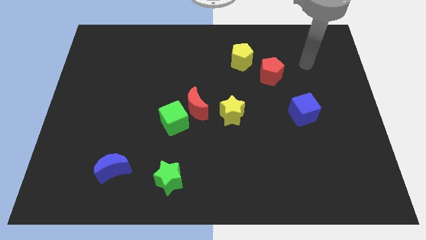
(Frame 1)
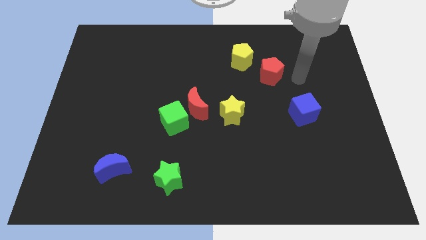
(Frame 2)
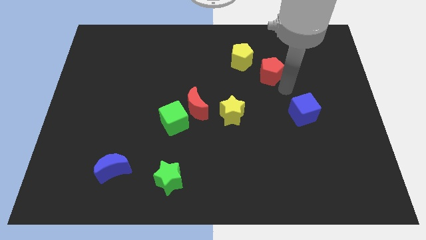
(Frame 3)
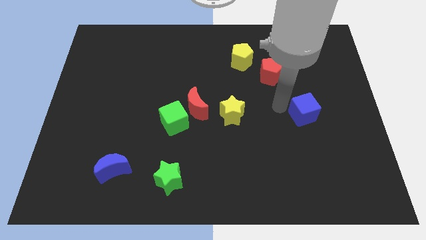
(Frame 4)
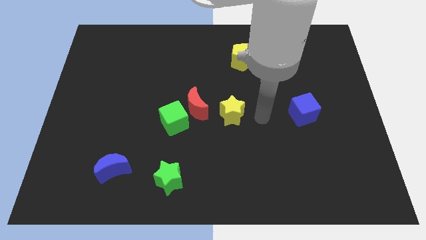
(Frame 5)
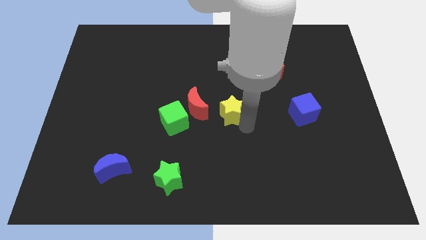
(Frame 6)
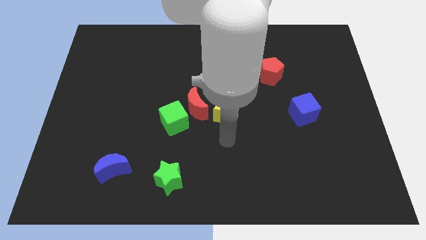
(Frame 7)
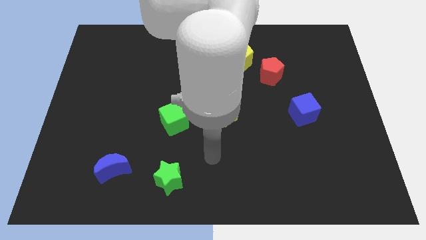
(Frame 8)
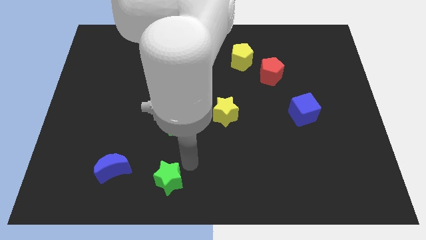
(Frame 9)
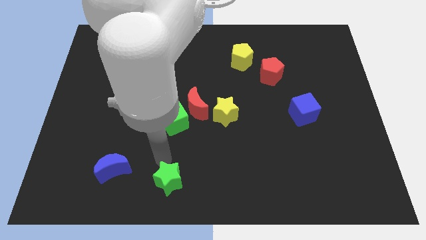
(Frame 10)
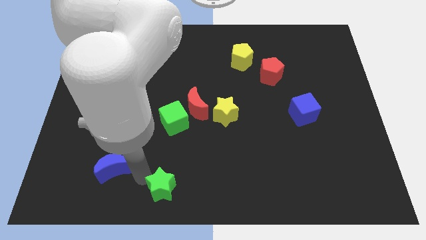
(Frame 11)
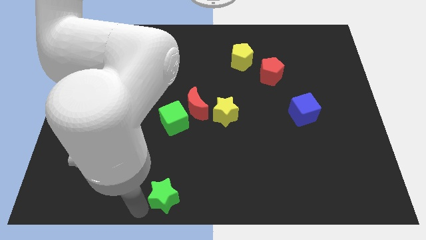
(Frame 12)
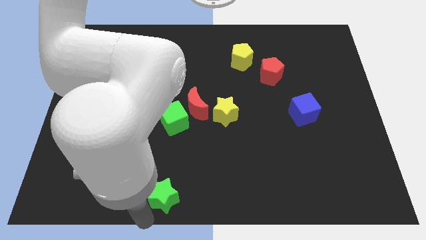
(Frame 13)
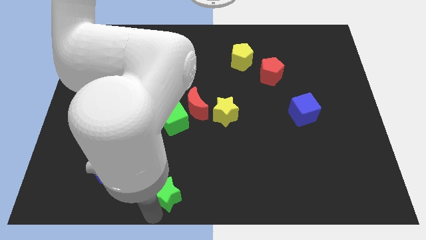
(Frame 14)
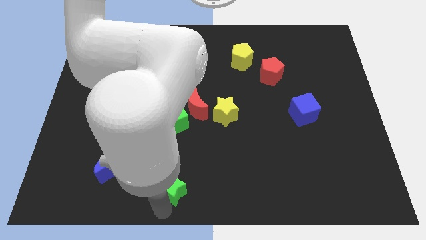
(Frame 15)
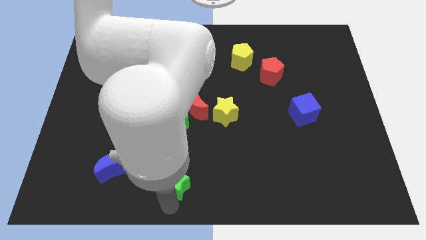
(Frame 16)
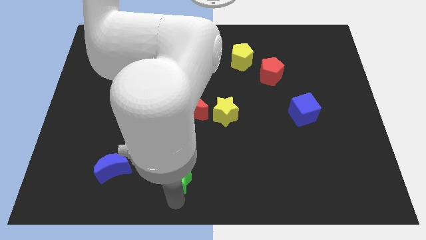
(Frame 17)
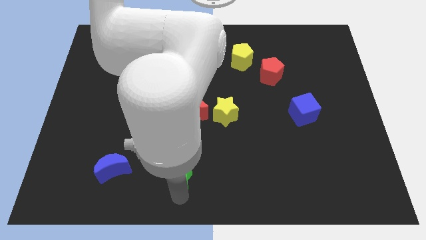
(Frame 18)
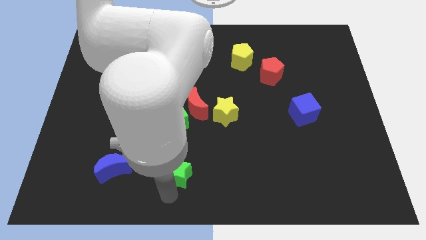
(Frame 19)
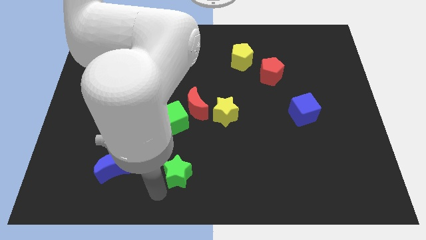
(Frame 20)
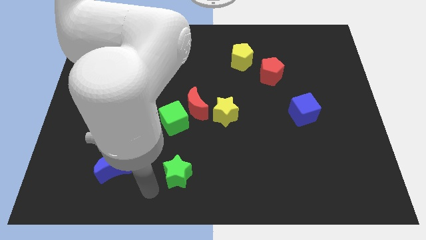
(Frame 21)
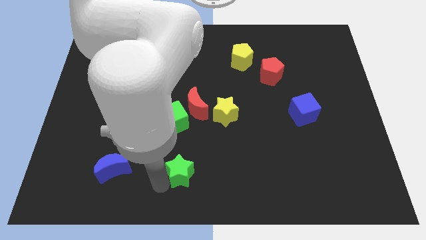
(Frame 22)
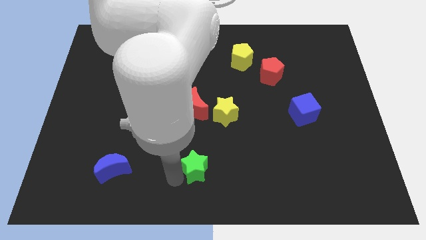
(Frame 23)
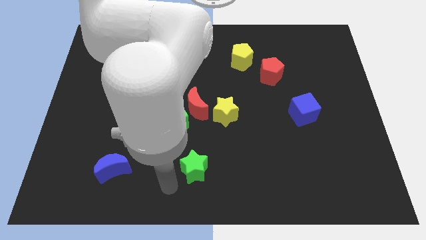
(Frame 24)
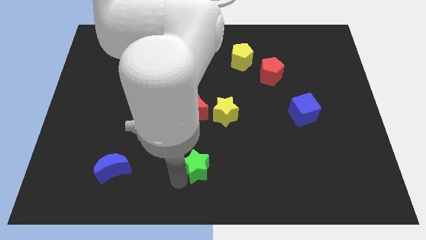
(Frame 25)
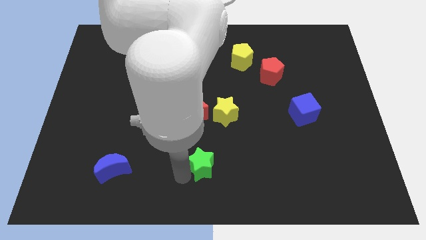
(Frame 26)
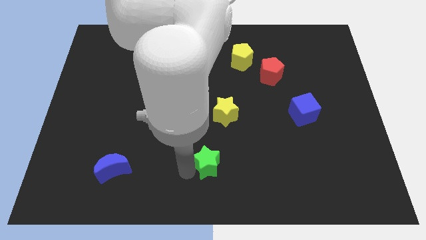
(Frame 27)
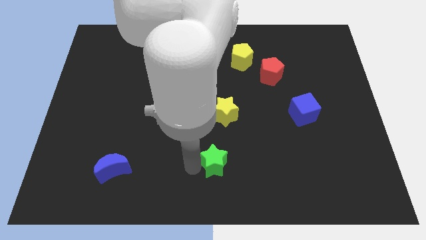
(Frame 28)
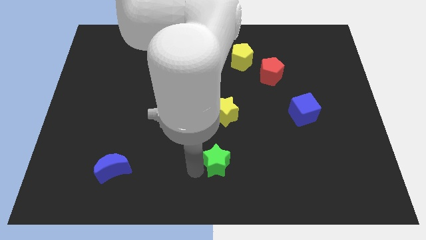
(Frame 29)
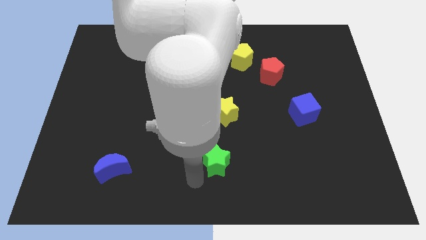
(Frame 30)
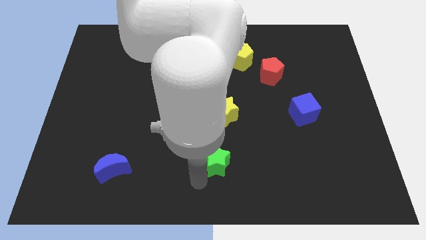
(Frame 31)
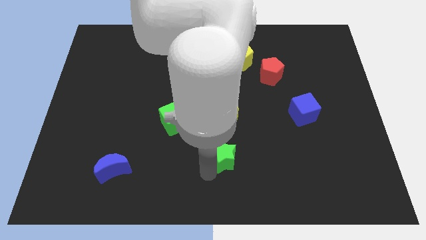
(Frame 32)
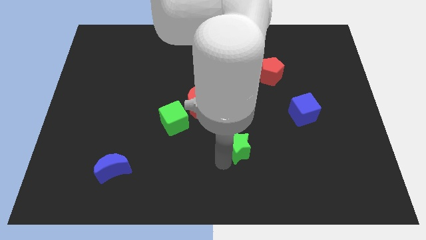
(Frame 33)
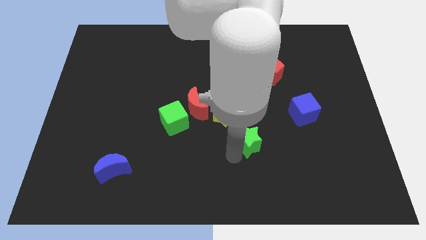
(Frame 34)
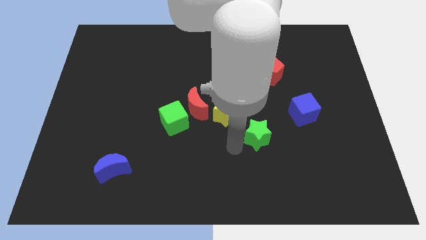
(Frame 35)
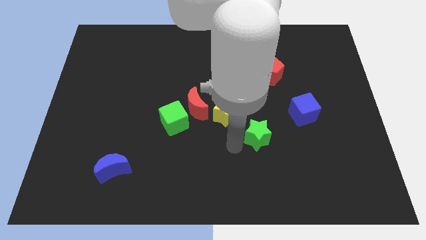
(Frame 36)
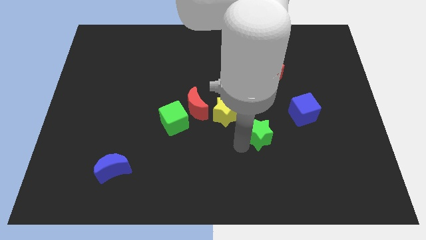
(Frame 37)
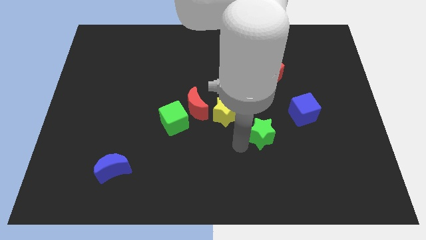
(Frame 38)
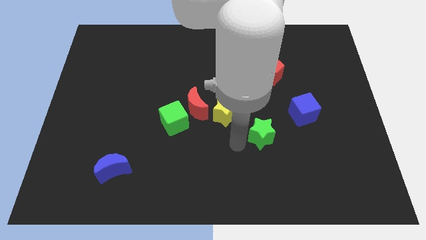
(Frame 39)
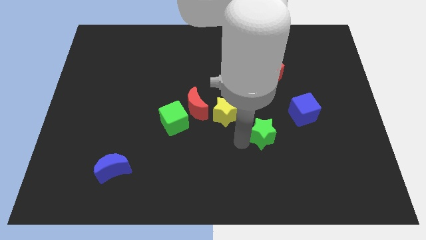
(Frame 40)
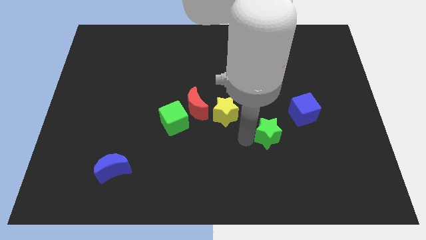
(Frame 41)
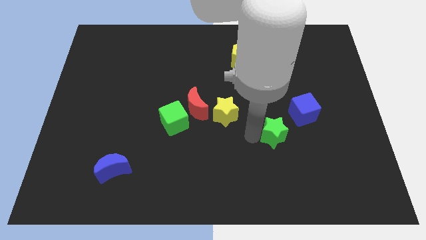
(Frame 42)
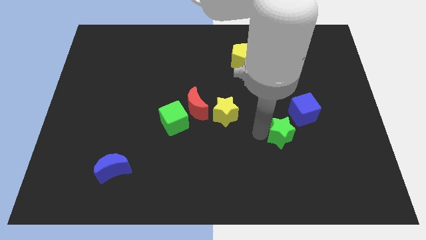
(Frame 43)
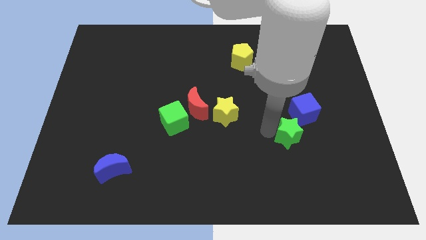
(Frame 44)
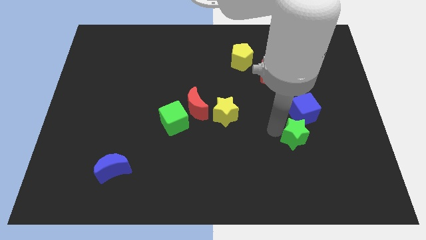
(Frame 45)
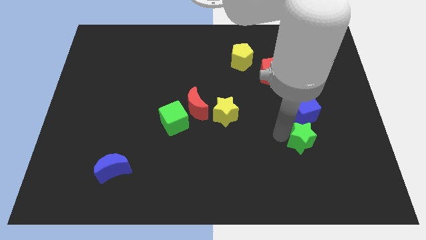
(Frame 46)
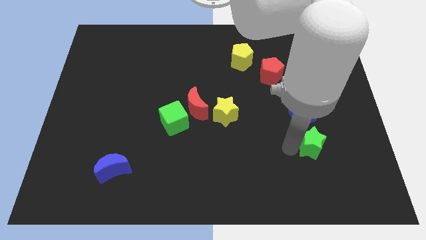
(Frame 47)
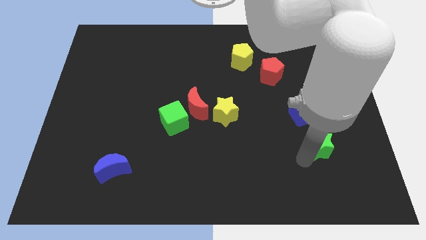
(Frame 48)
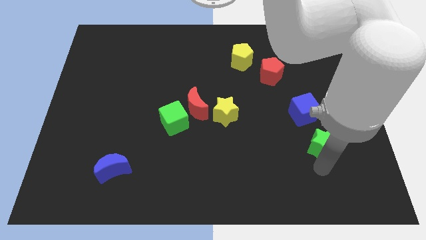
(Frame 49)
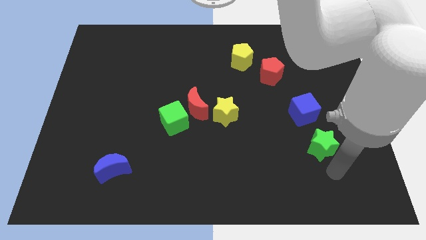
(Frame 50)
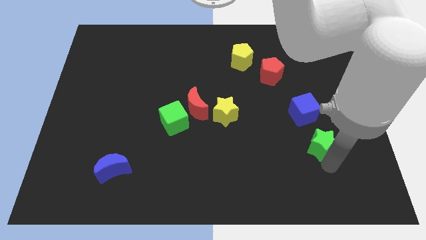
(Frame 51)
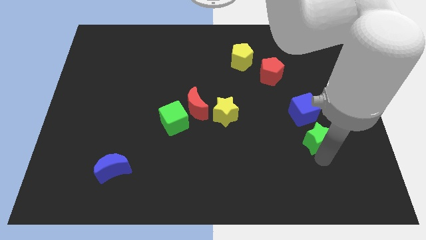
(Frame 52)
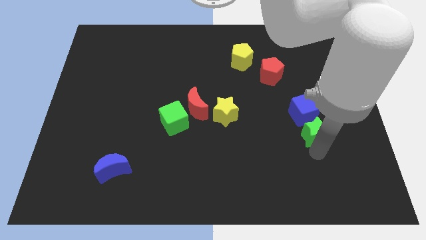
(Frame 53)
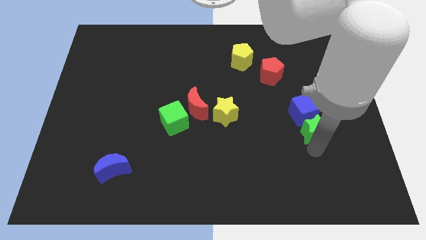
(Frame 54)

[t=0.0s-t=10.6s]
put the green star close to the blue cube

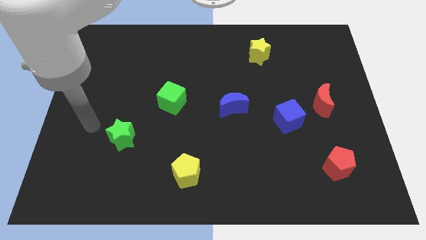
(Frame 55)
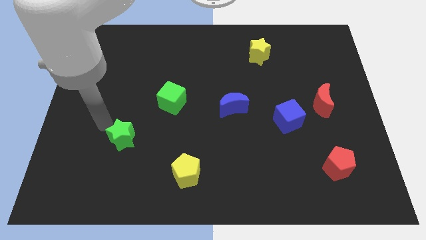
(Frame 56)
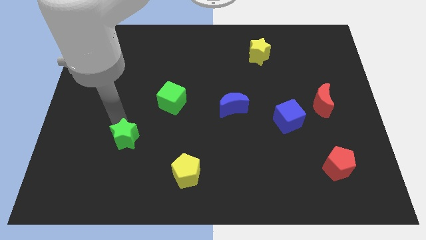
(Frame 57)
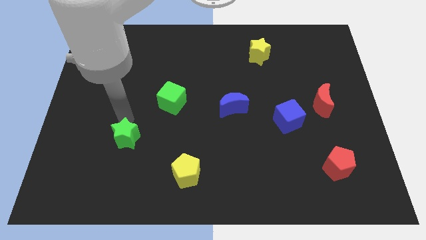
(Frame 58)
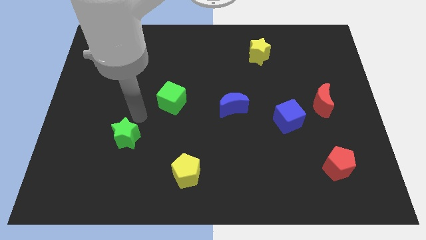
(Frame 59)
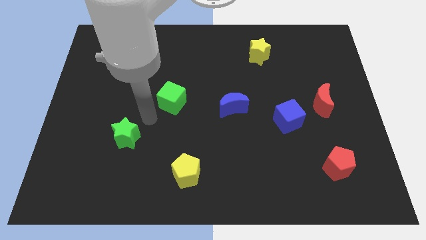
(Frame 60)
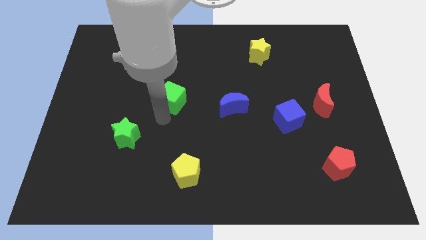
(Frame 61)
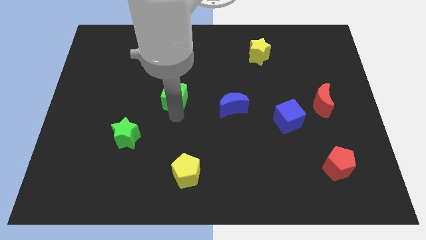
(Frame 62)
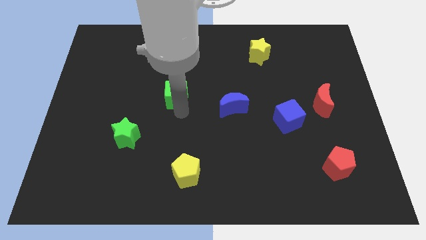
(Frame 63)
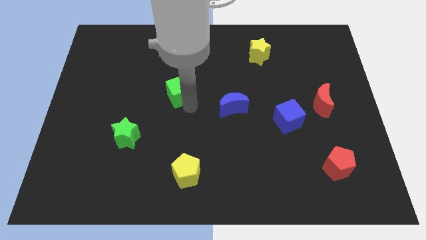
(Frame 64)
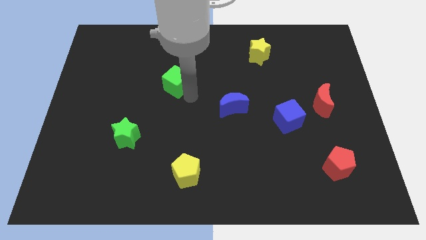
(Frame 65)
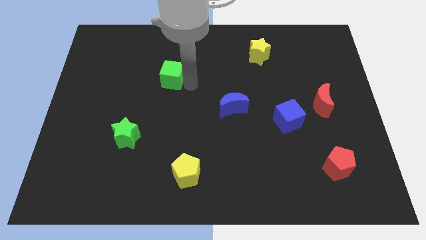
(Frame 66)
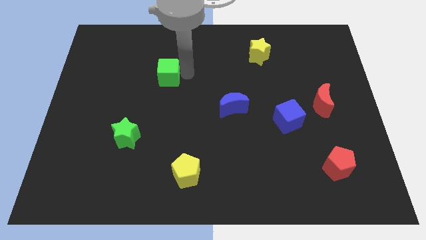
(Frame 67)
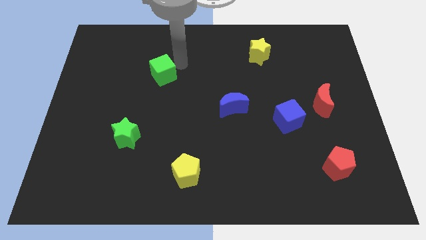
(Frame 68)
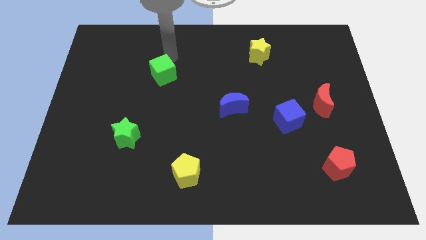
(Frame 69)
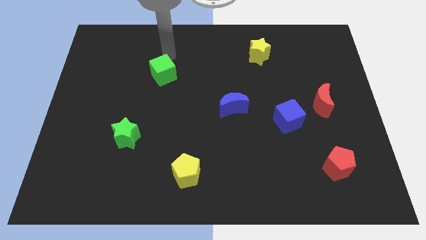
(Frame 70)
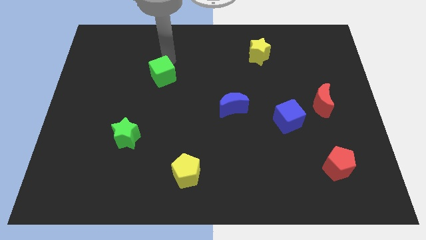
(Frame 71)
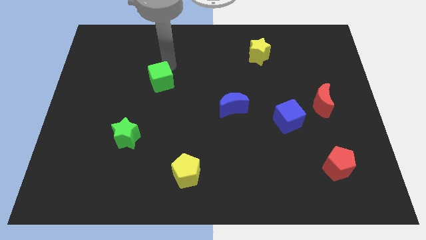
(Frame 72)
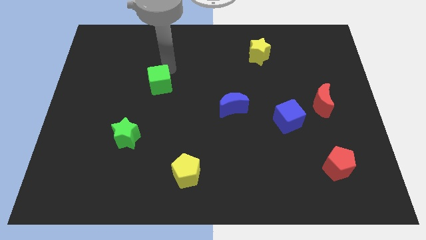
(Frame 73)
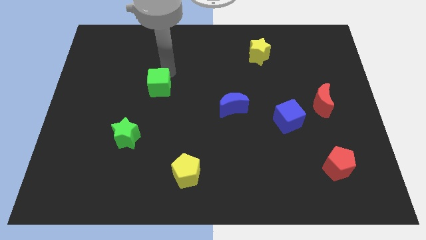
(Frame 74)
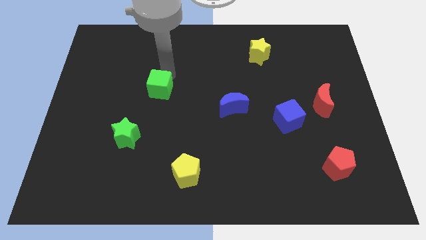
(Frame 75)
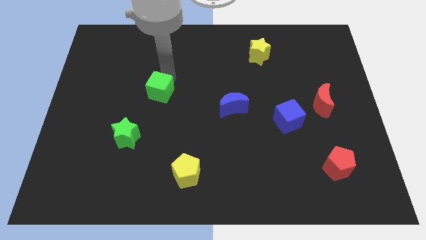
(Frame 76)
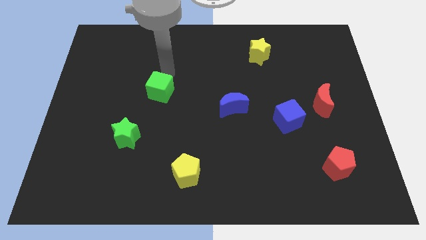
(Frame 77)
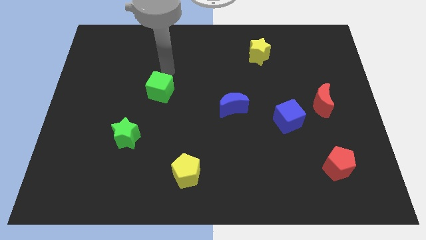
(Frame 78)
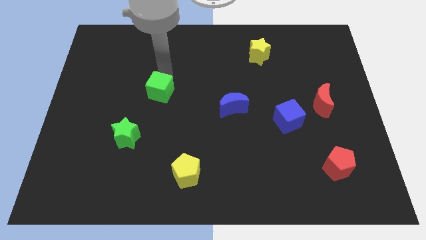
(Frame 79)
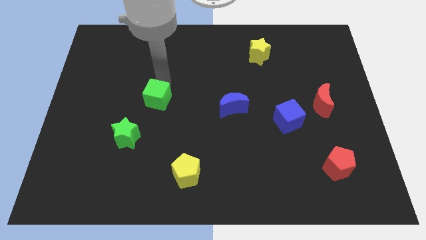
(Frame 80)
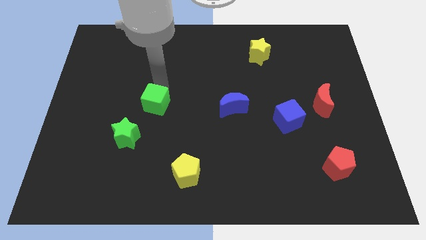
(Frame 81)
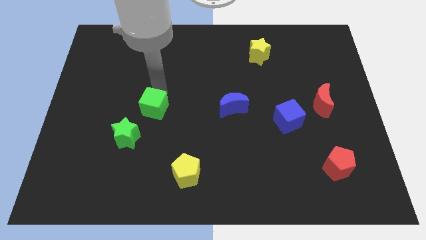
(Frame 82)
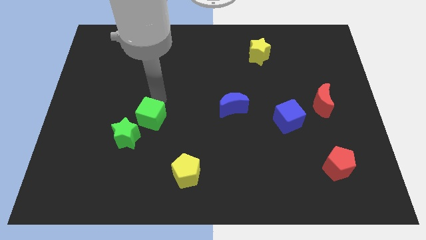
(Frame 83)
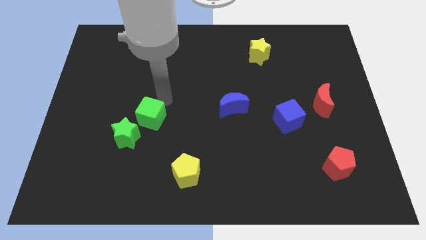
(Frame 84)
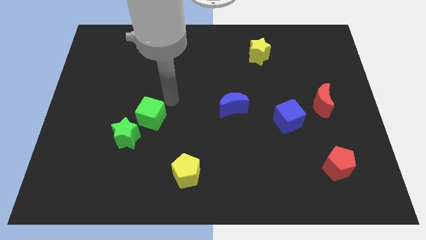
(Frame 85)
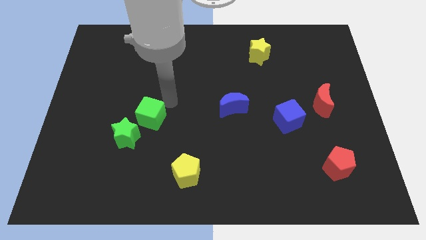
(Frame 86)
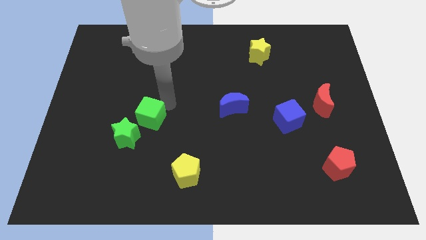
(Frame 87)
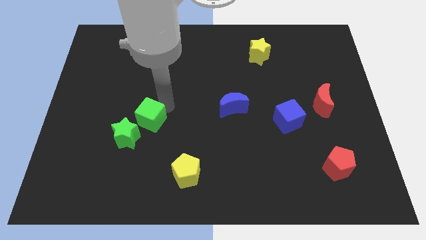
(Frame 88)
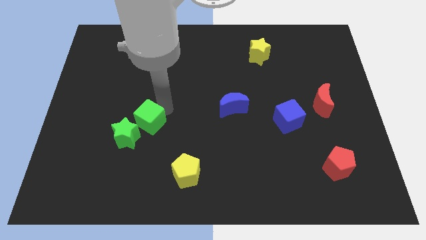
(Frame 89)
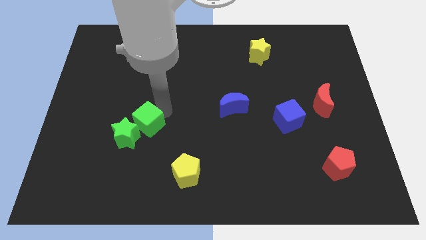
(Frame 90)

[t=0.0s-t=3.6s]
slide the green cube next to the green star
